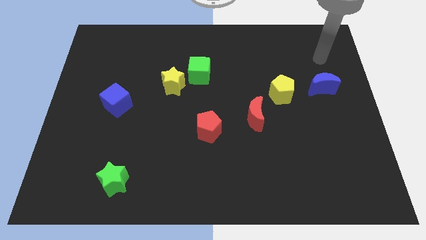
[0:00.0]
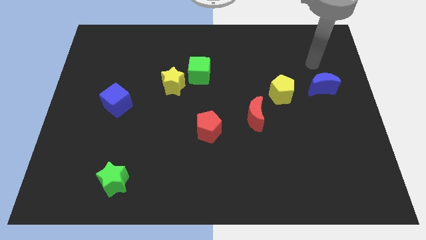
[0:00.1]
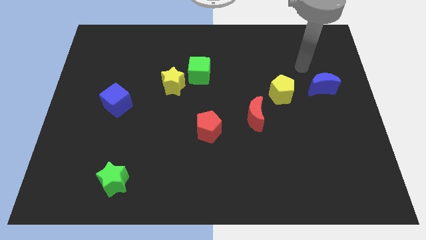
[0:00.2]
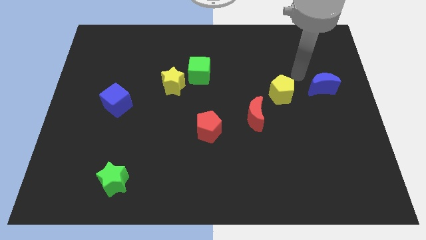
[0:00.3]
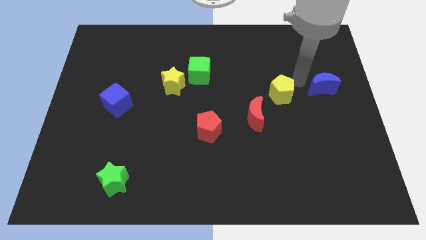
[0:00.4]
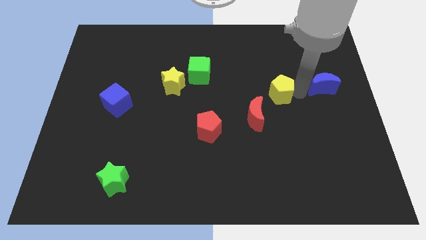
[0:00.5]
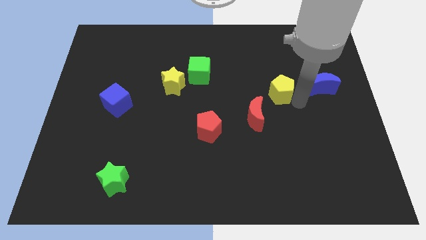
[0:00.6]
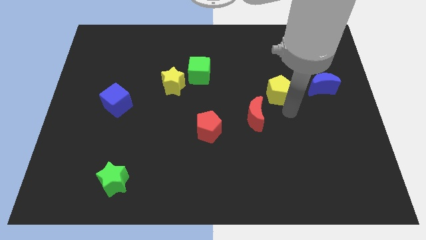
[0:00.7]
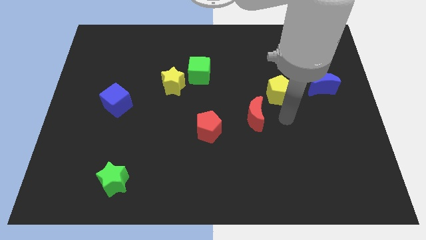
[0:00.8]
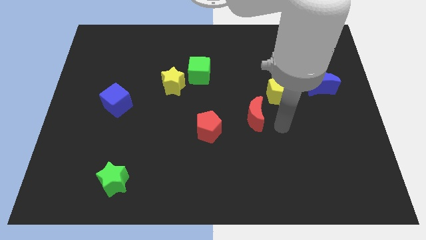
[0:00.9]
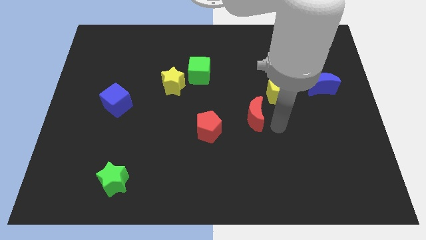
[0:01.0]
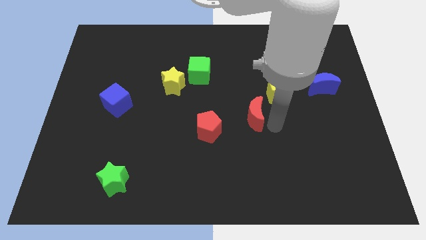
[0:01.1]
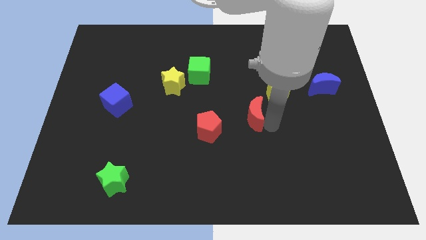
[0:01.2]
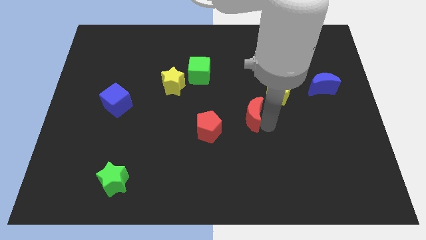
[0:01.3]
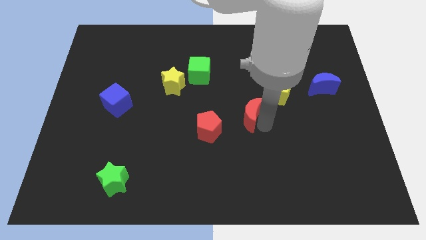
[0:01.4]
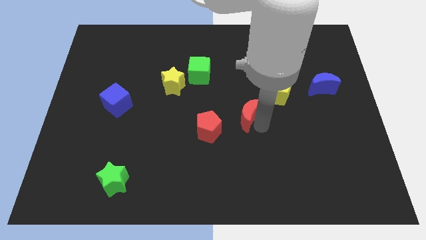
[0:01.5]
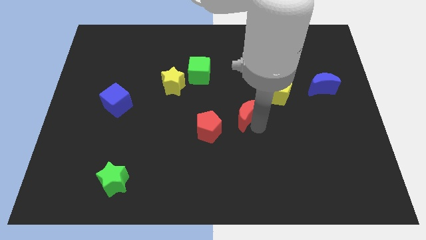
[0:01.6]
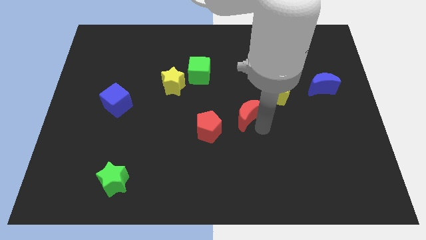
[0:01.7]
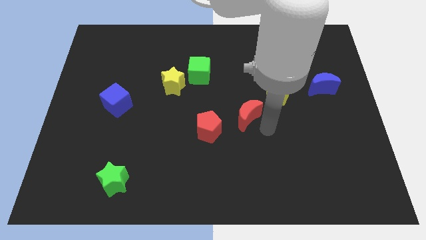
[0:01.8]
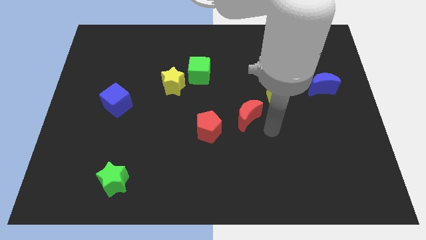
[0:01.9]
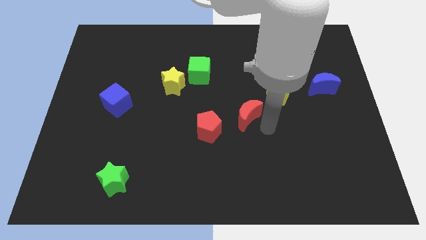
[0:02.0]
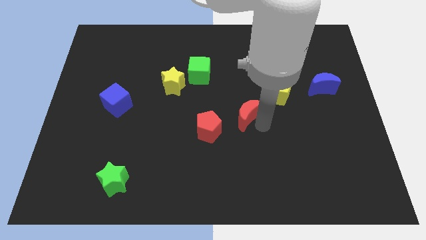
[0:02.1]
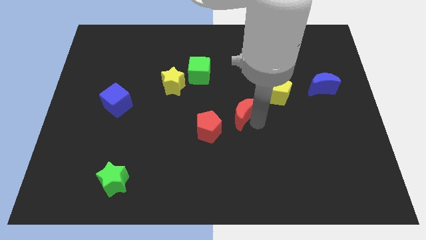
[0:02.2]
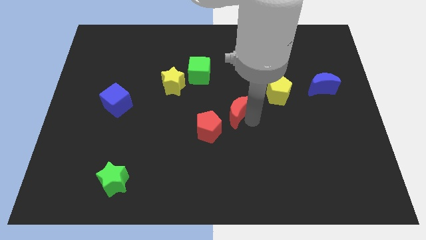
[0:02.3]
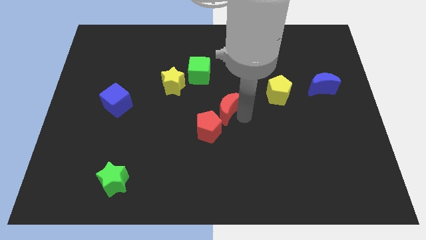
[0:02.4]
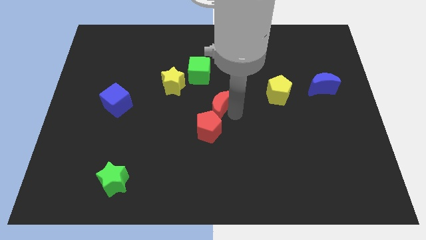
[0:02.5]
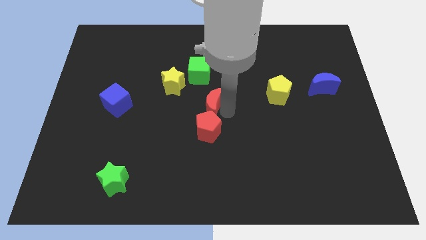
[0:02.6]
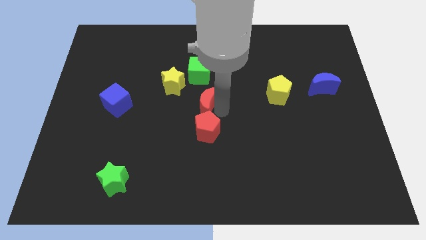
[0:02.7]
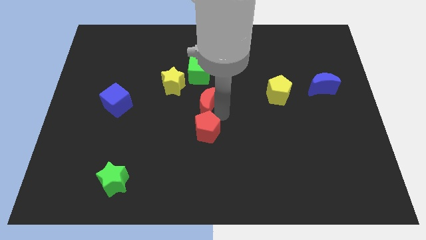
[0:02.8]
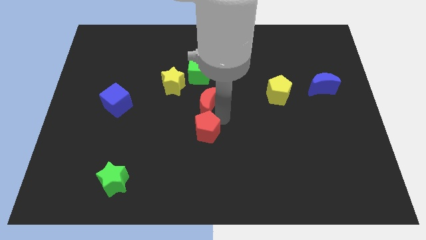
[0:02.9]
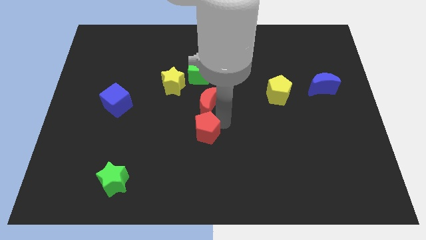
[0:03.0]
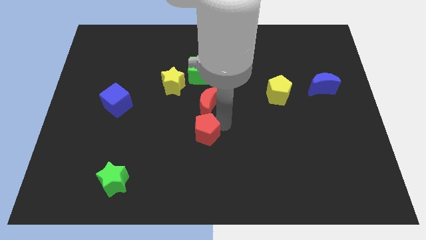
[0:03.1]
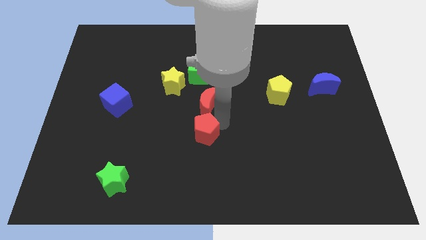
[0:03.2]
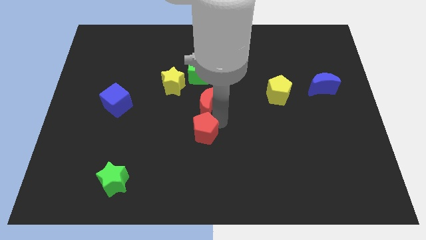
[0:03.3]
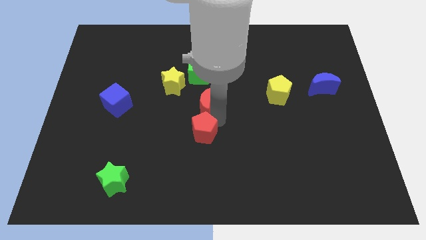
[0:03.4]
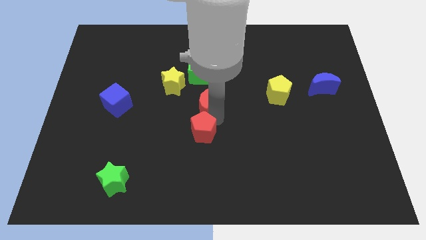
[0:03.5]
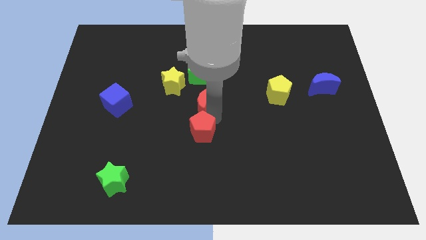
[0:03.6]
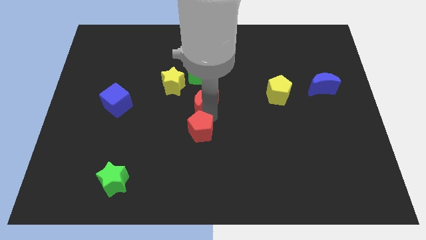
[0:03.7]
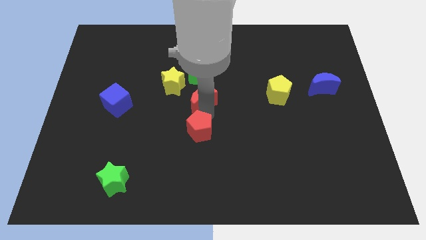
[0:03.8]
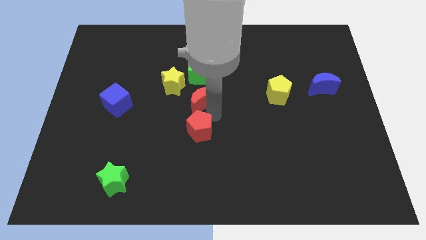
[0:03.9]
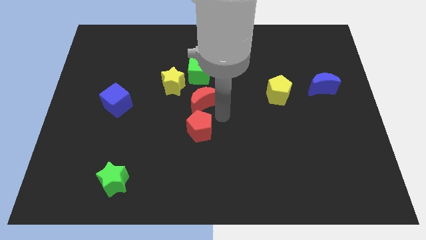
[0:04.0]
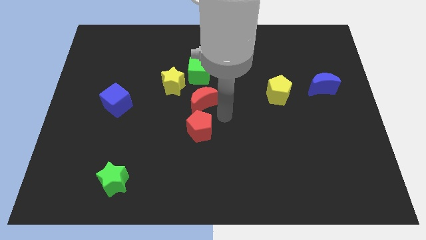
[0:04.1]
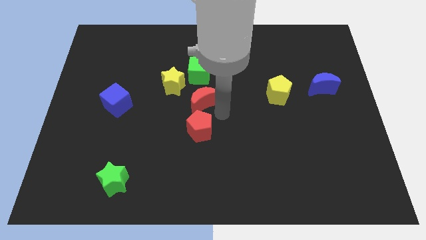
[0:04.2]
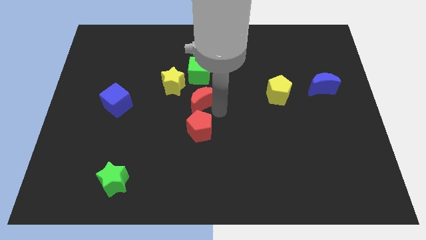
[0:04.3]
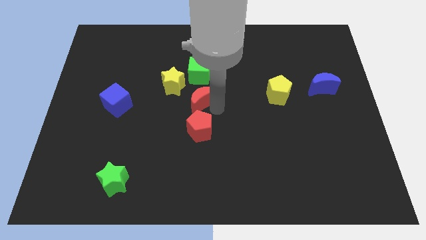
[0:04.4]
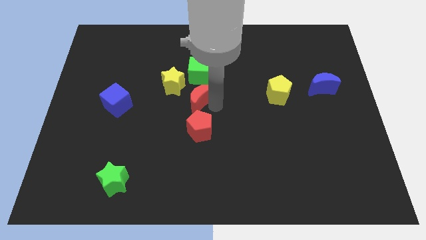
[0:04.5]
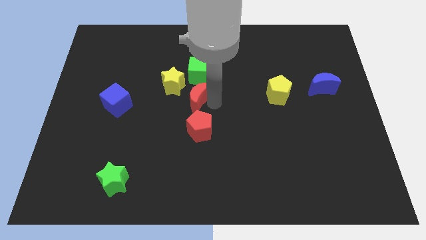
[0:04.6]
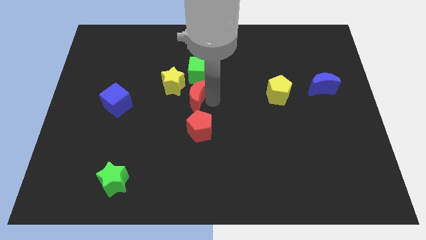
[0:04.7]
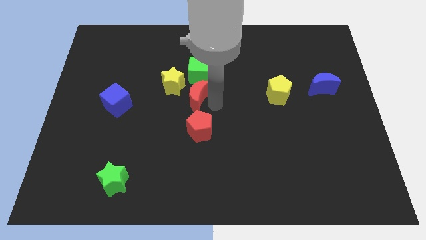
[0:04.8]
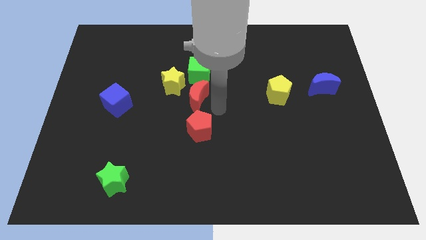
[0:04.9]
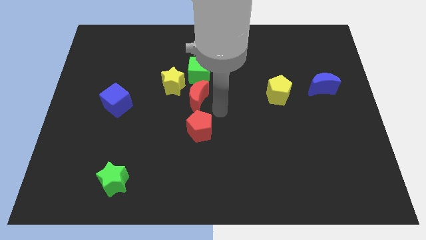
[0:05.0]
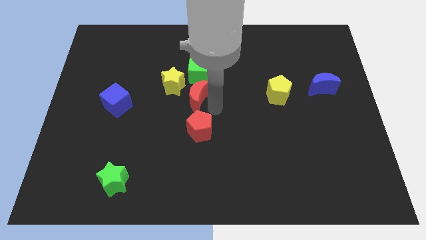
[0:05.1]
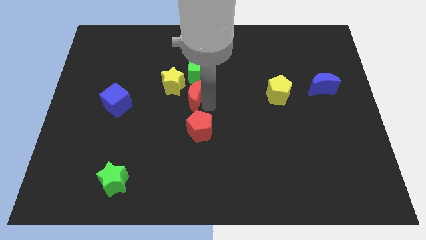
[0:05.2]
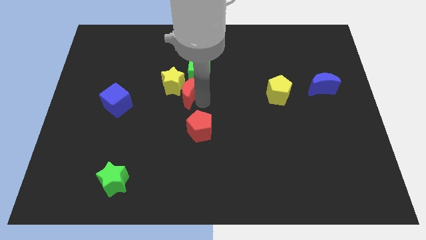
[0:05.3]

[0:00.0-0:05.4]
push the red moon towards the yellow star
